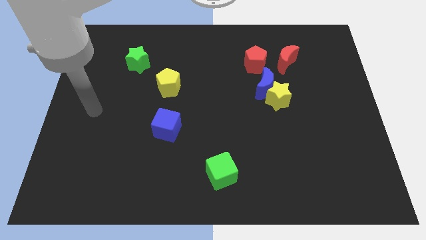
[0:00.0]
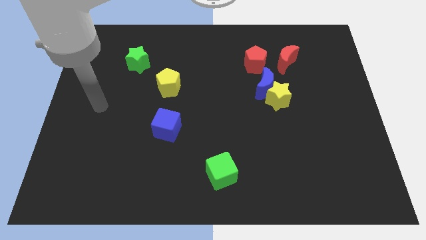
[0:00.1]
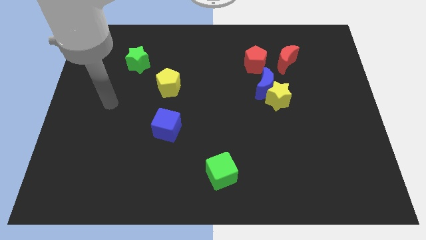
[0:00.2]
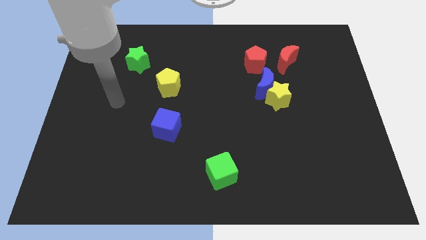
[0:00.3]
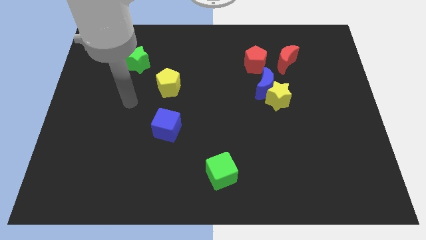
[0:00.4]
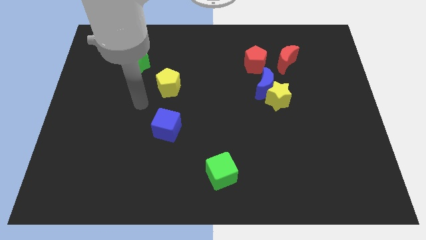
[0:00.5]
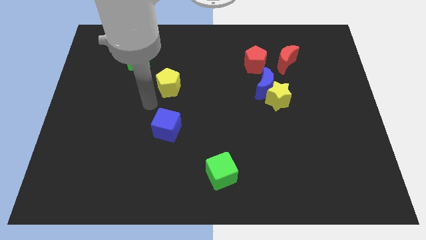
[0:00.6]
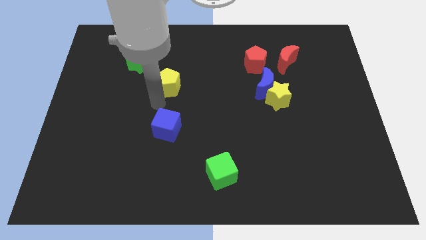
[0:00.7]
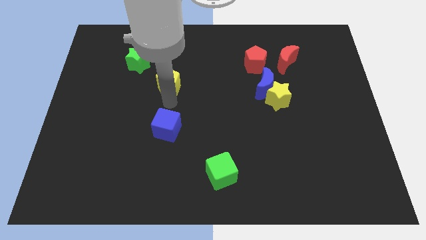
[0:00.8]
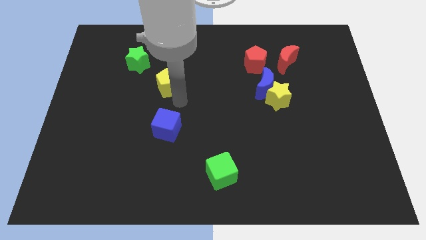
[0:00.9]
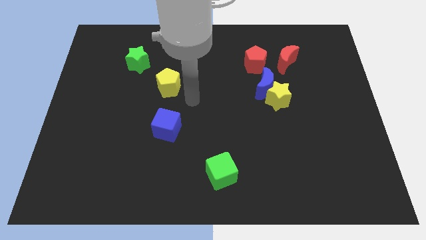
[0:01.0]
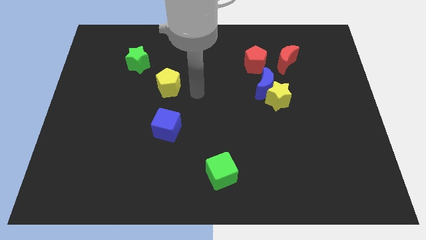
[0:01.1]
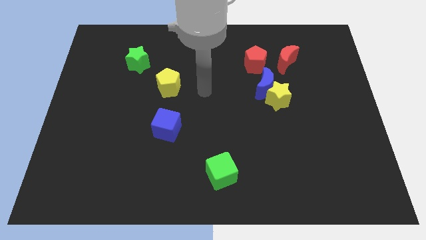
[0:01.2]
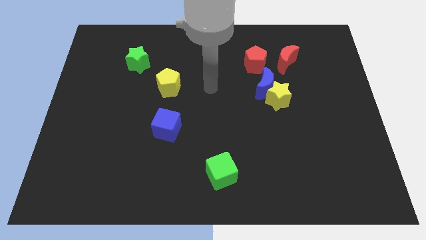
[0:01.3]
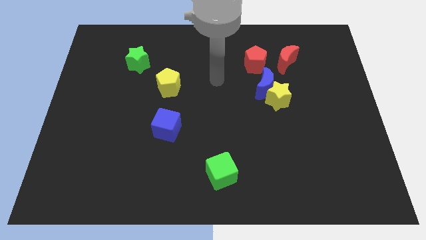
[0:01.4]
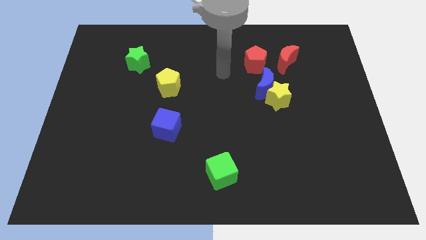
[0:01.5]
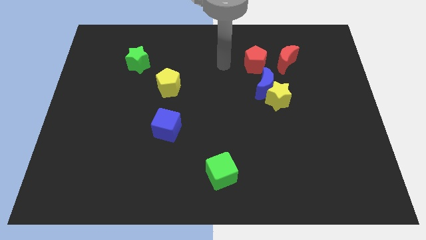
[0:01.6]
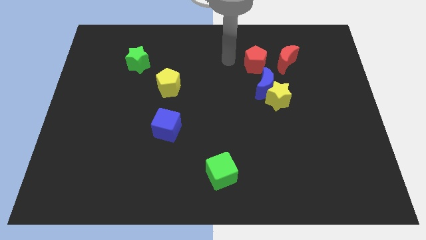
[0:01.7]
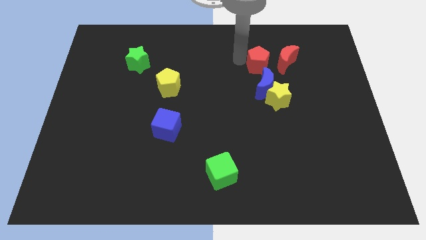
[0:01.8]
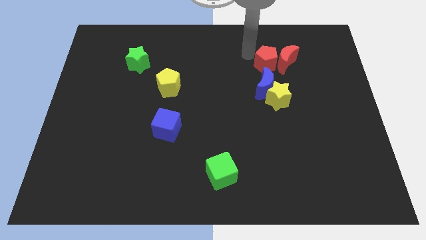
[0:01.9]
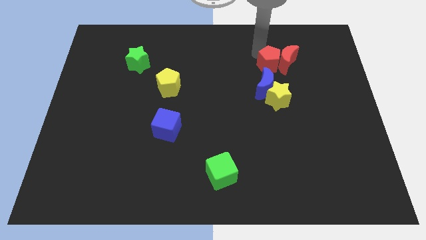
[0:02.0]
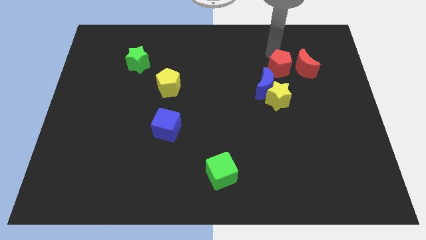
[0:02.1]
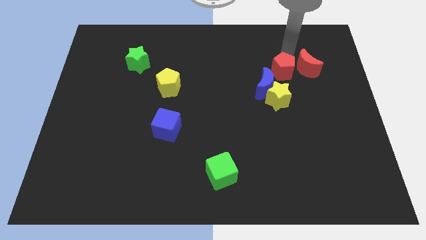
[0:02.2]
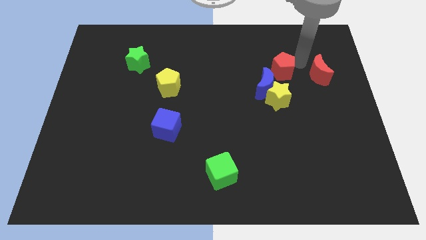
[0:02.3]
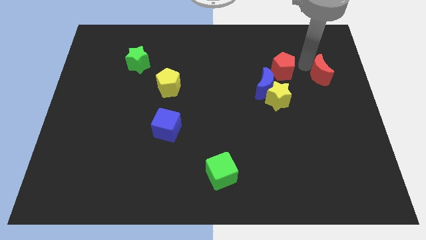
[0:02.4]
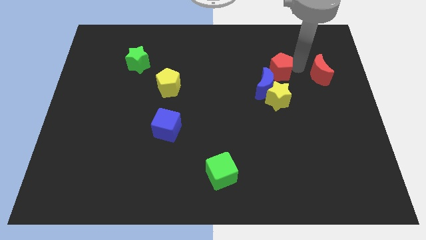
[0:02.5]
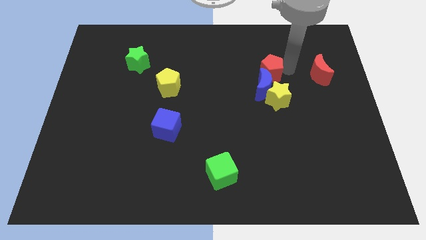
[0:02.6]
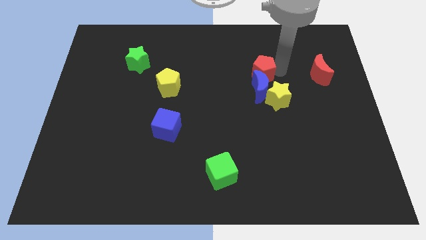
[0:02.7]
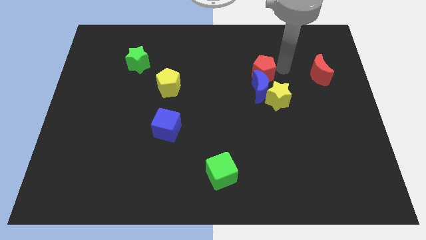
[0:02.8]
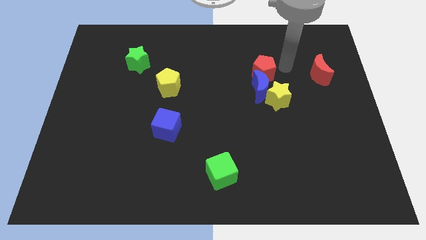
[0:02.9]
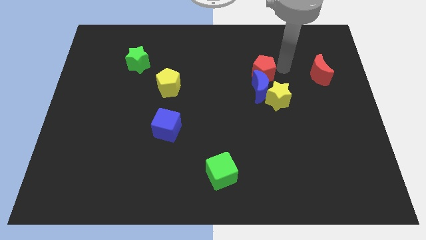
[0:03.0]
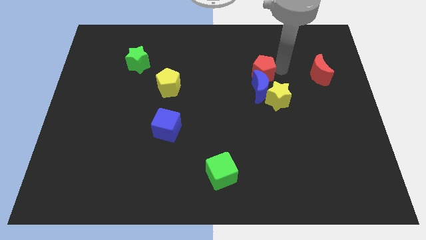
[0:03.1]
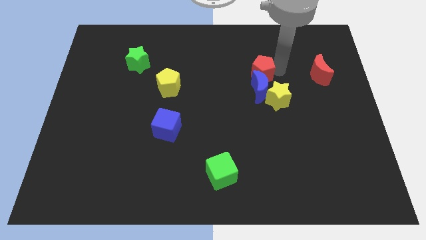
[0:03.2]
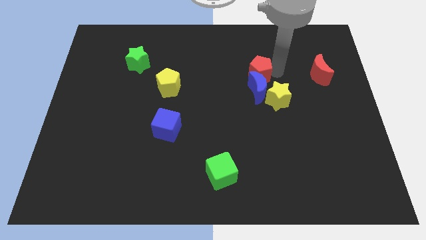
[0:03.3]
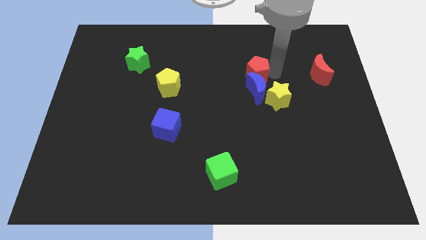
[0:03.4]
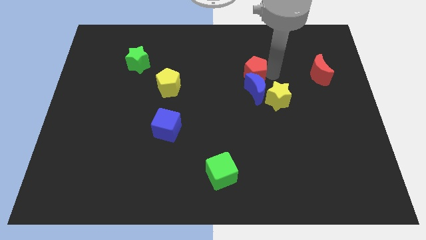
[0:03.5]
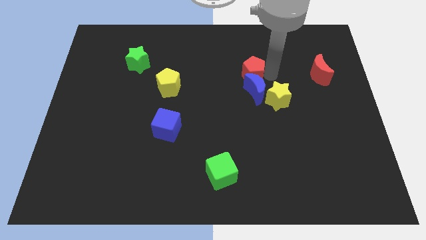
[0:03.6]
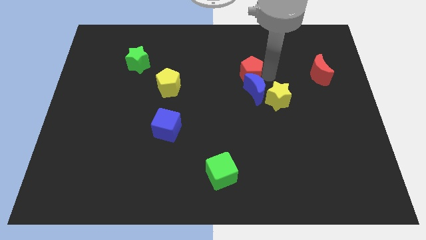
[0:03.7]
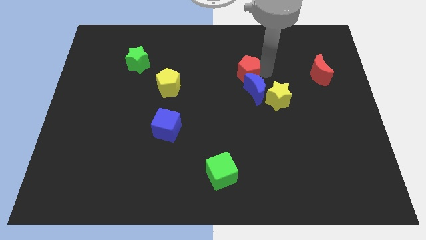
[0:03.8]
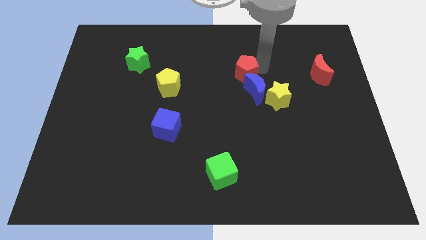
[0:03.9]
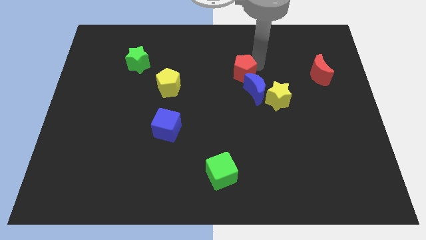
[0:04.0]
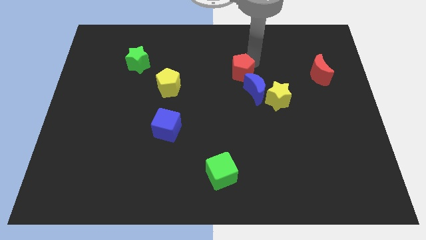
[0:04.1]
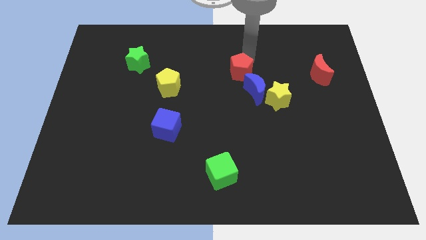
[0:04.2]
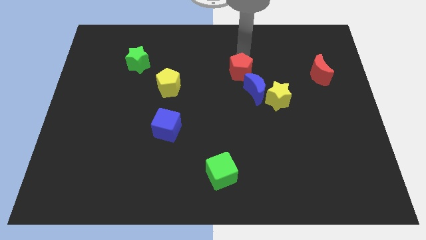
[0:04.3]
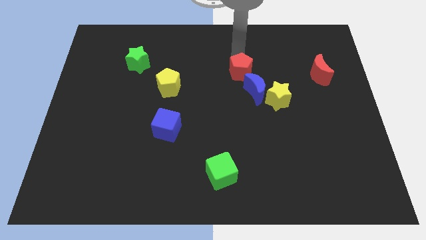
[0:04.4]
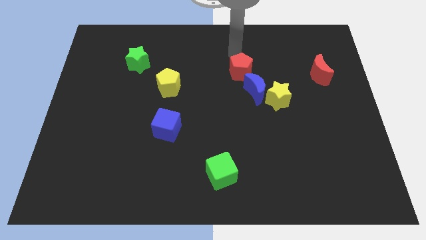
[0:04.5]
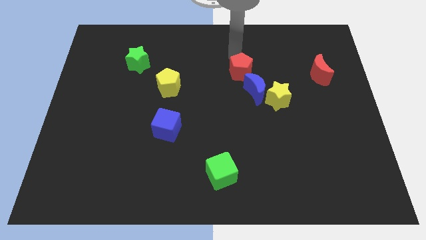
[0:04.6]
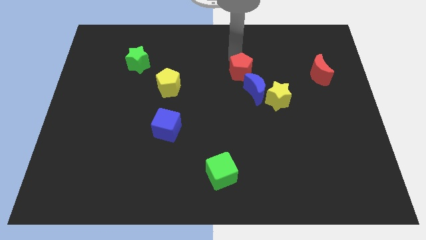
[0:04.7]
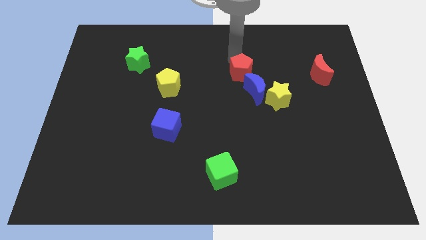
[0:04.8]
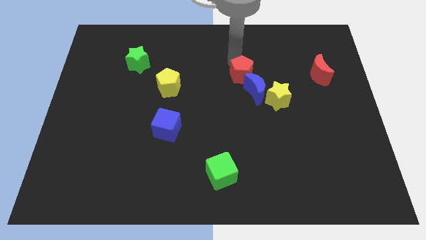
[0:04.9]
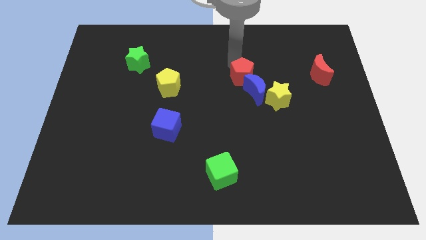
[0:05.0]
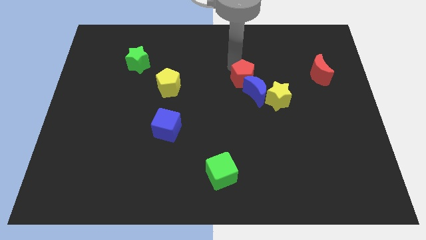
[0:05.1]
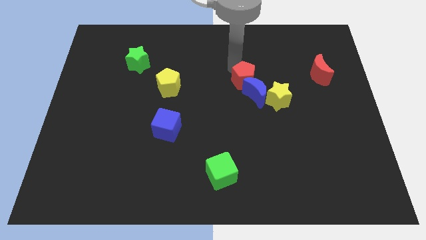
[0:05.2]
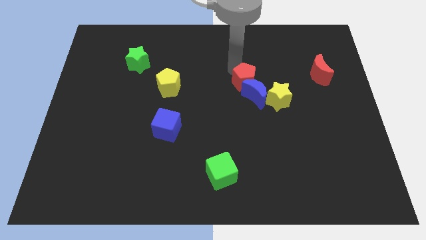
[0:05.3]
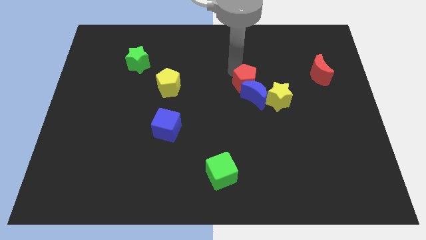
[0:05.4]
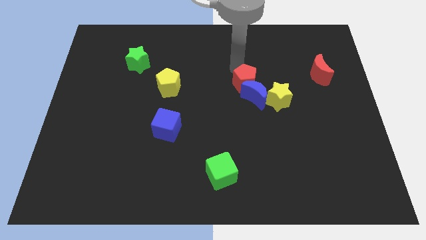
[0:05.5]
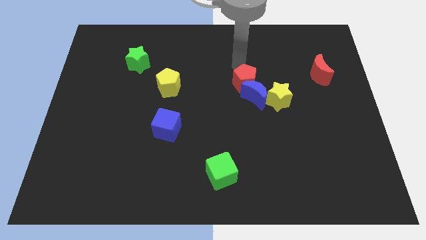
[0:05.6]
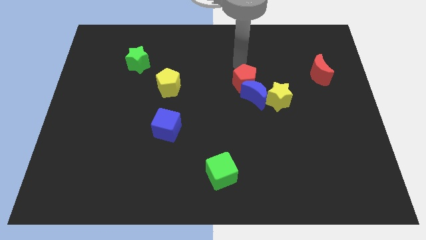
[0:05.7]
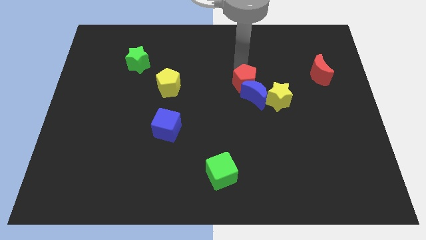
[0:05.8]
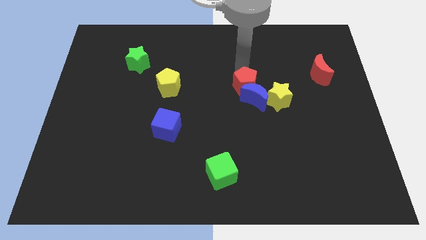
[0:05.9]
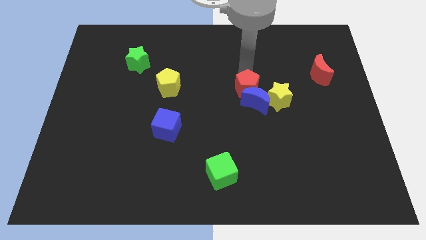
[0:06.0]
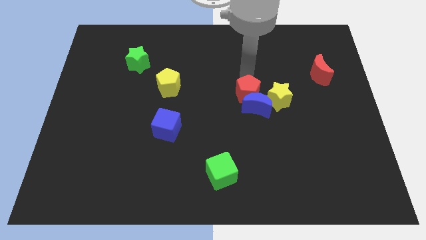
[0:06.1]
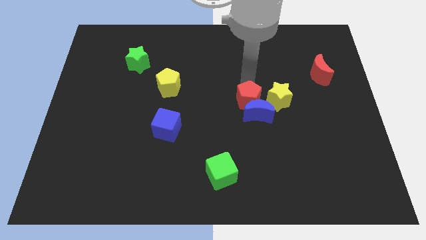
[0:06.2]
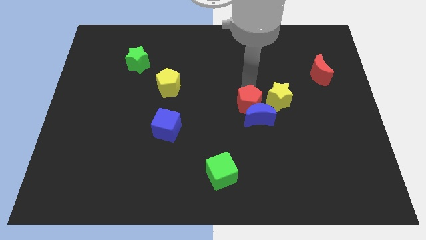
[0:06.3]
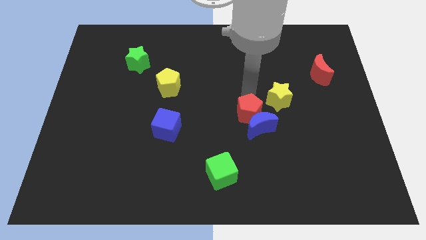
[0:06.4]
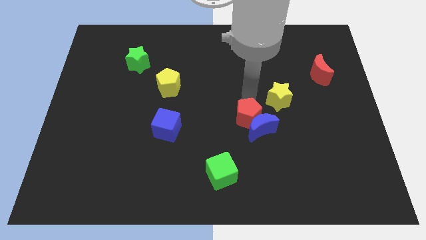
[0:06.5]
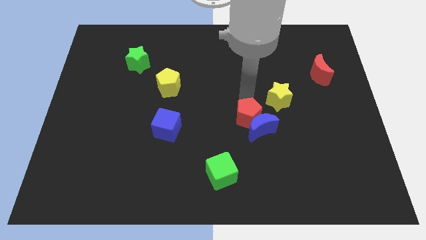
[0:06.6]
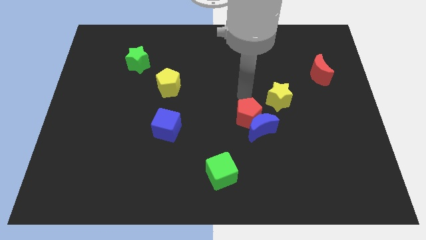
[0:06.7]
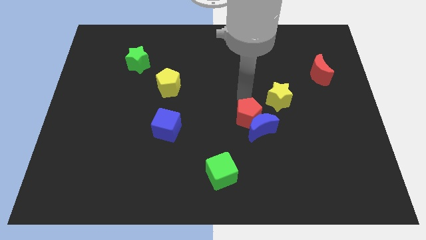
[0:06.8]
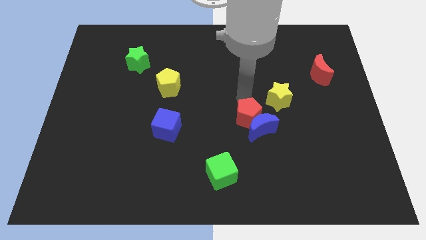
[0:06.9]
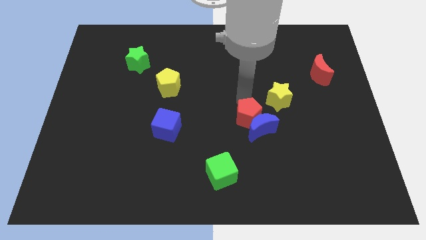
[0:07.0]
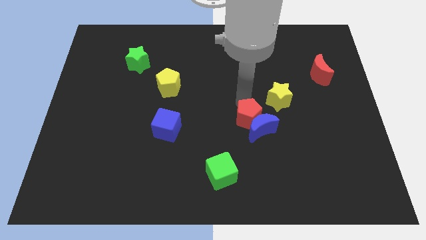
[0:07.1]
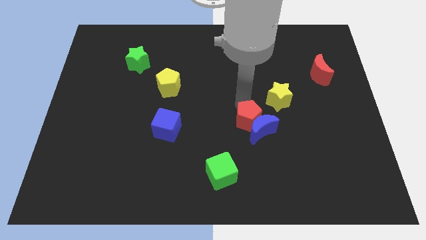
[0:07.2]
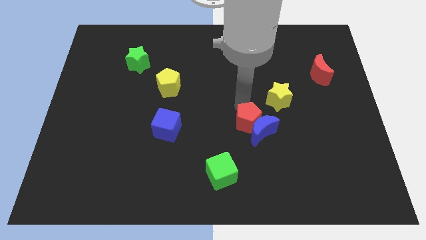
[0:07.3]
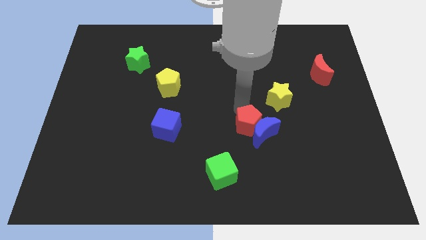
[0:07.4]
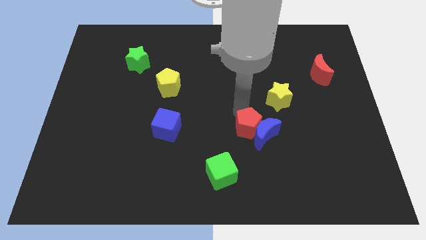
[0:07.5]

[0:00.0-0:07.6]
slide the red pentagon down

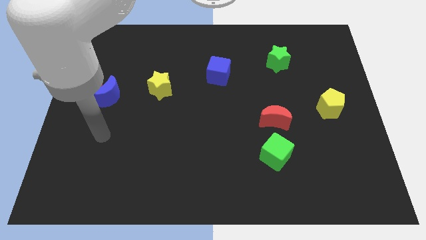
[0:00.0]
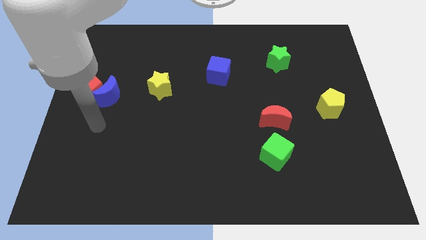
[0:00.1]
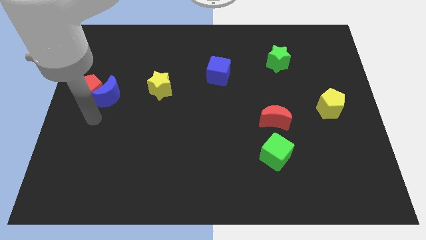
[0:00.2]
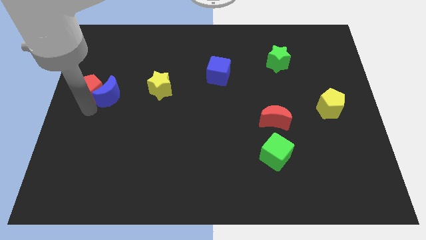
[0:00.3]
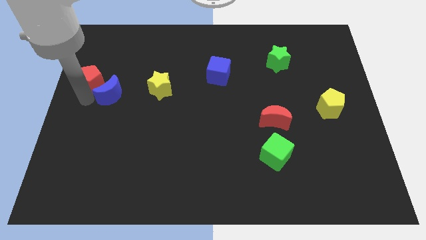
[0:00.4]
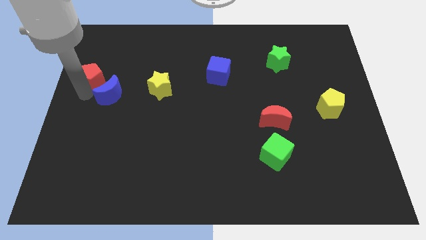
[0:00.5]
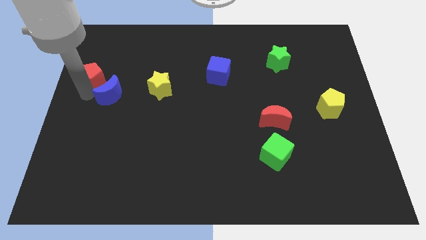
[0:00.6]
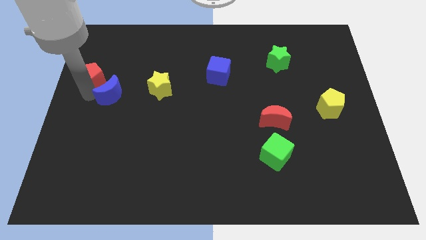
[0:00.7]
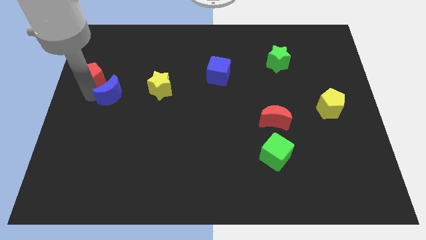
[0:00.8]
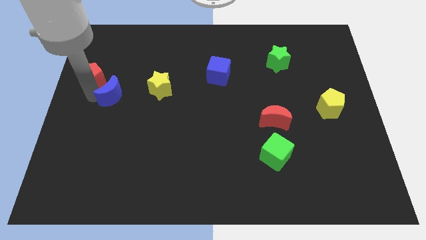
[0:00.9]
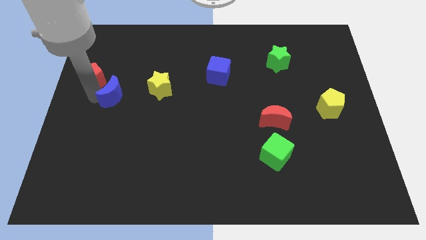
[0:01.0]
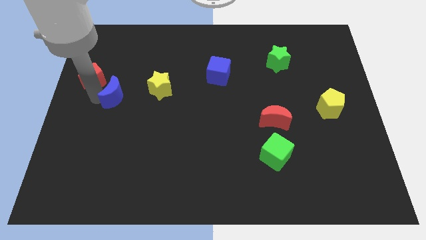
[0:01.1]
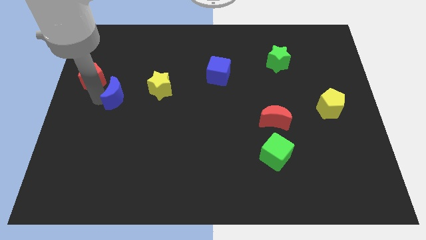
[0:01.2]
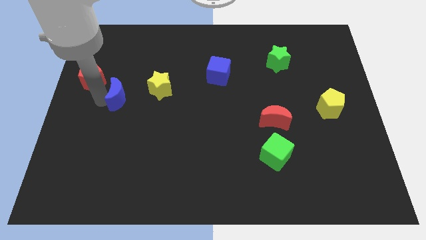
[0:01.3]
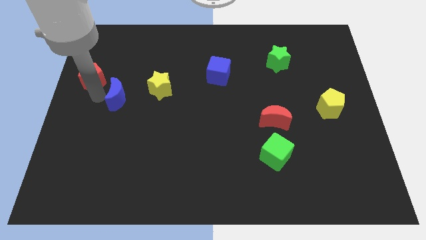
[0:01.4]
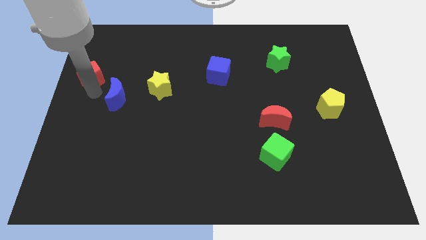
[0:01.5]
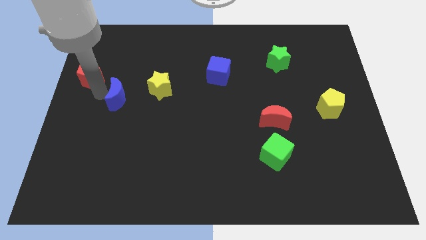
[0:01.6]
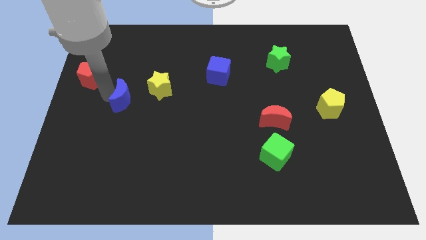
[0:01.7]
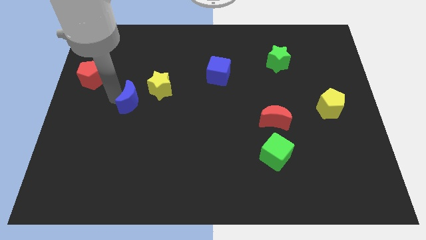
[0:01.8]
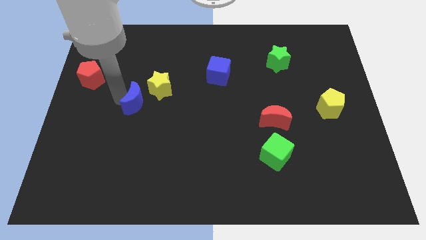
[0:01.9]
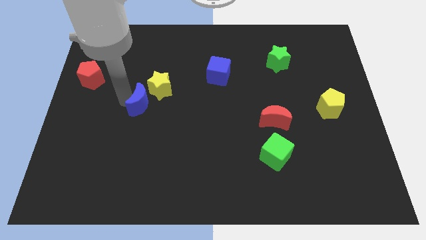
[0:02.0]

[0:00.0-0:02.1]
slightly slide the blue moon to the right
